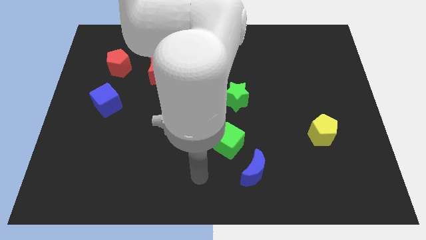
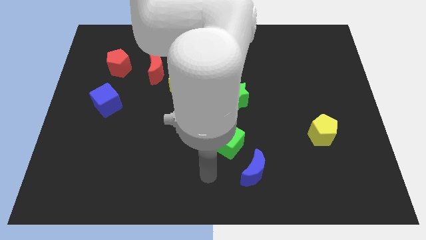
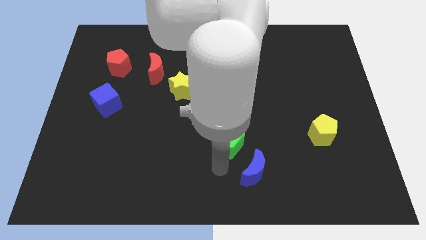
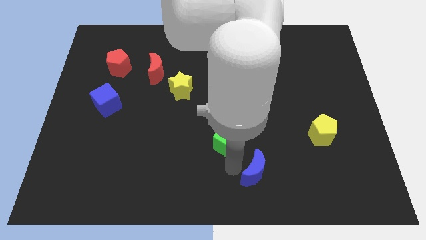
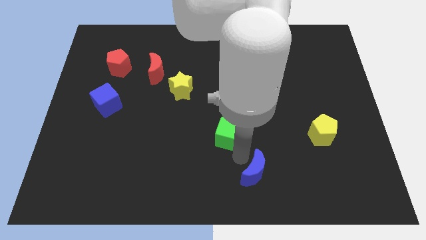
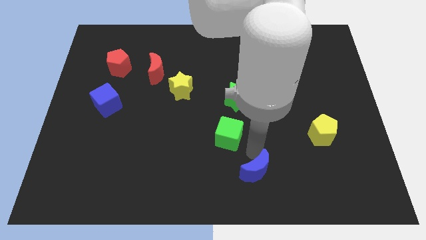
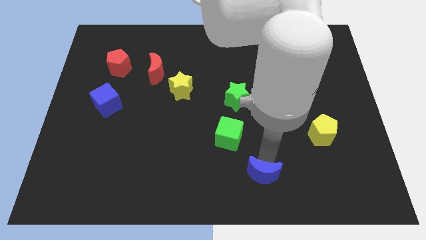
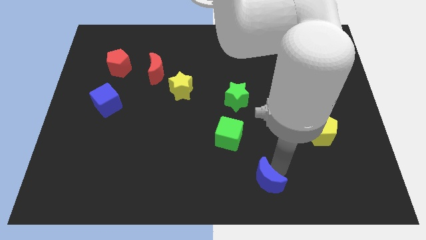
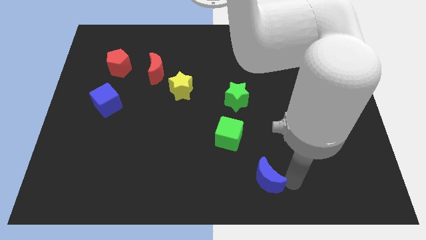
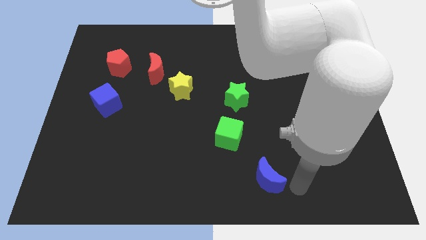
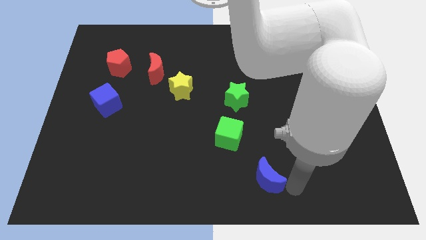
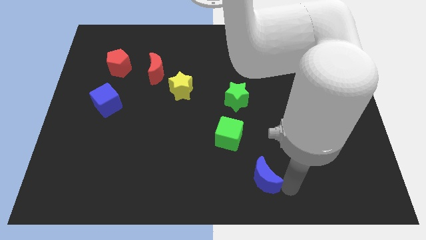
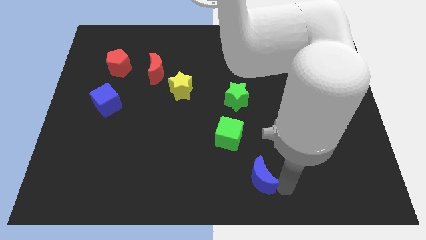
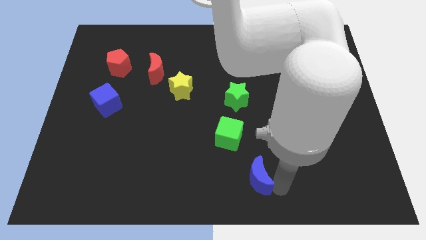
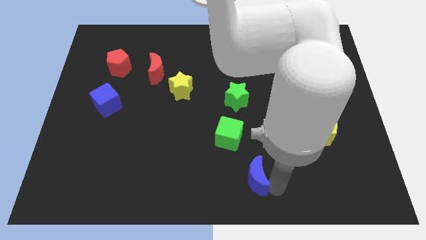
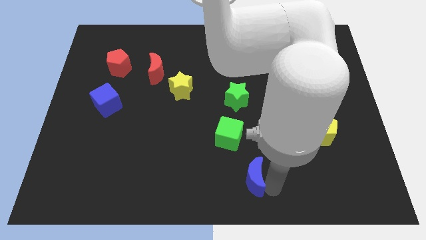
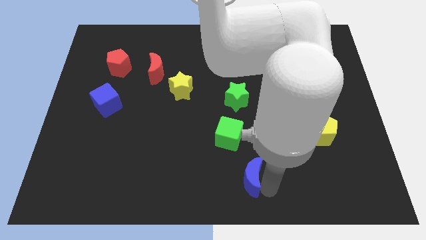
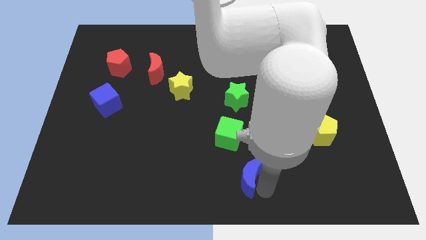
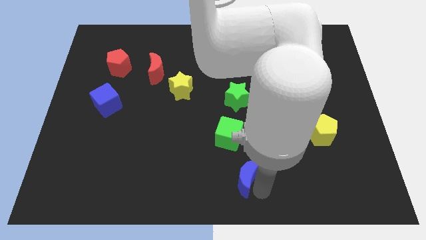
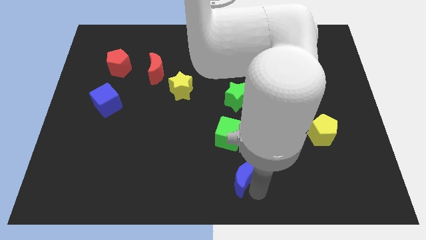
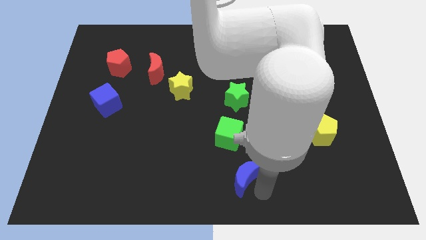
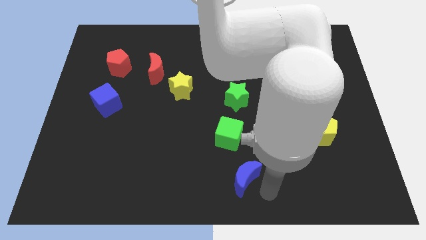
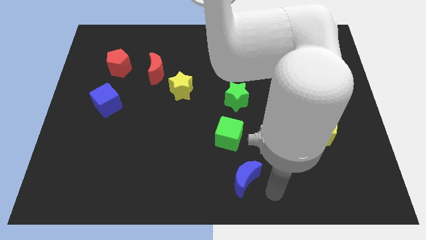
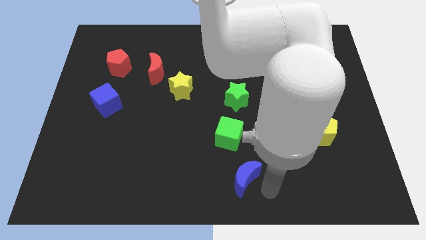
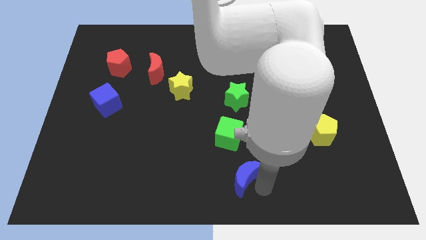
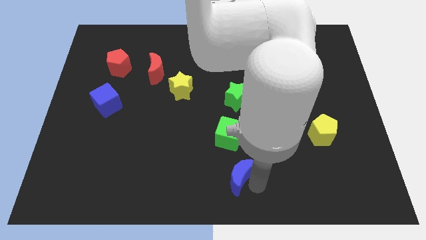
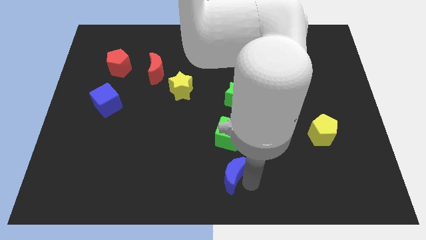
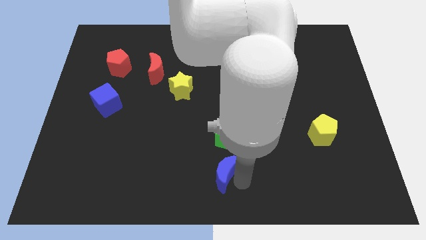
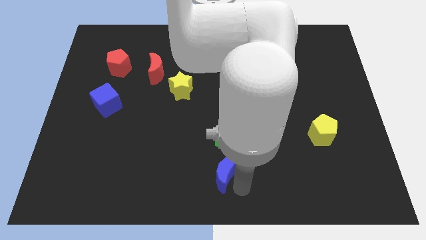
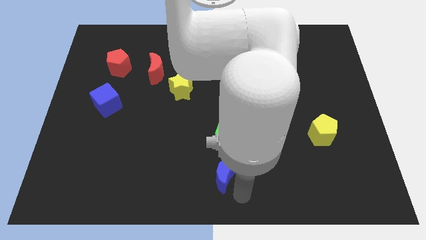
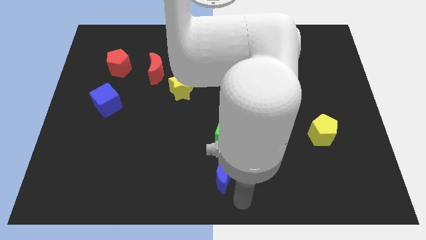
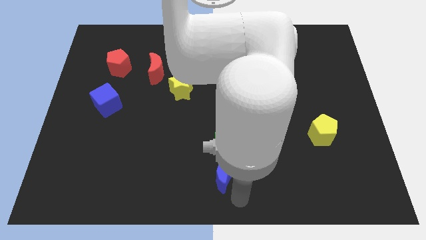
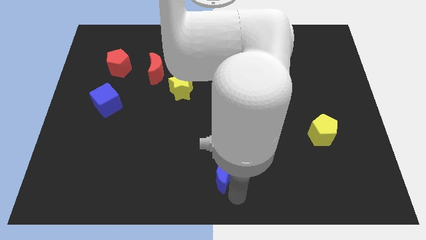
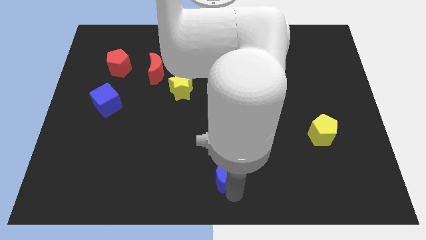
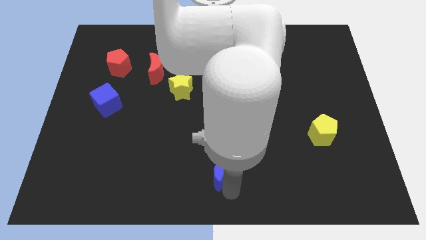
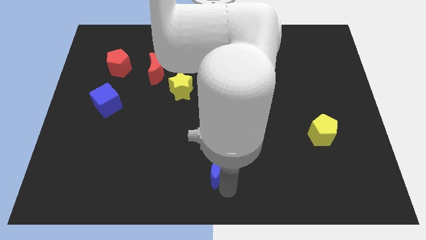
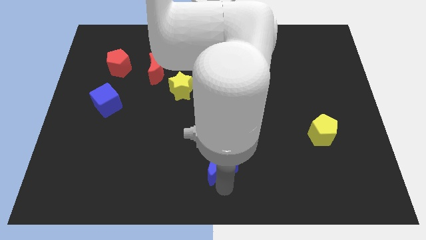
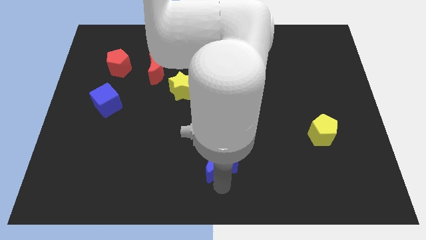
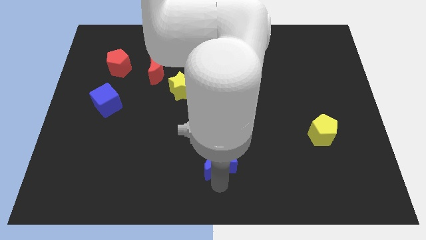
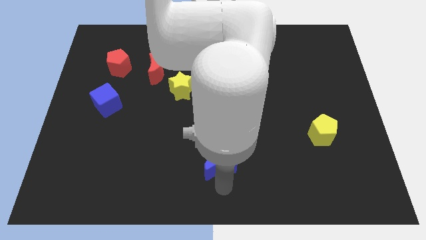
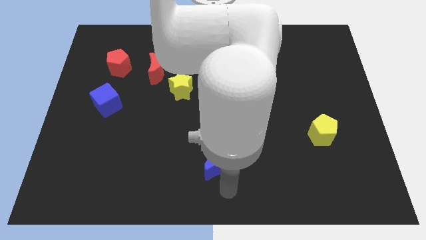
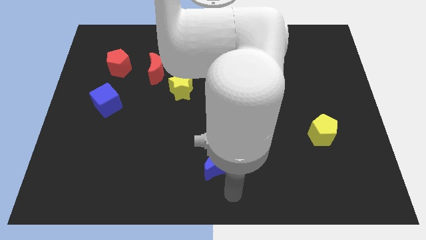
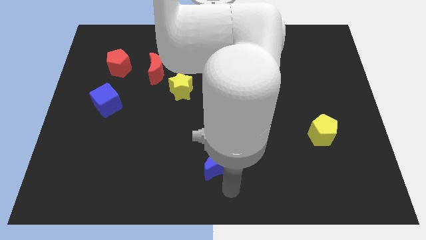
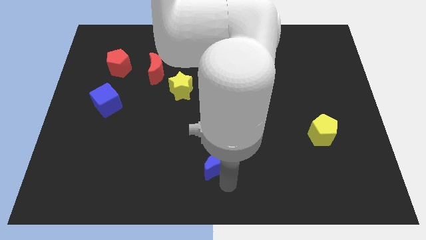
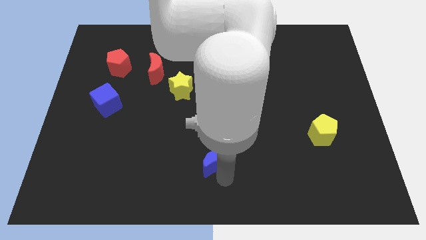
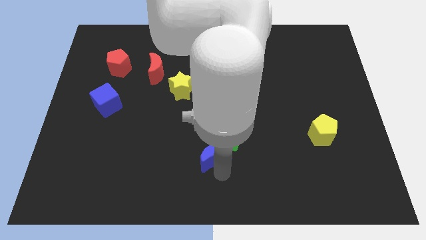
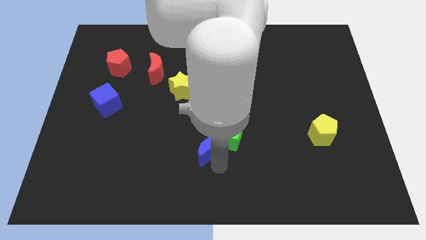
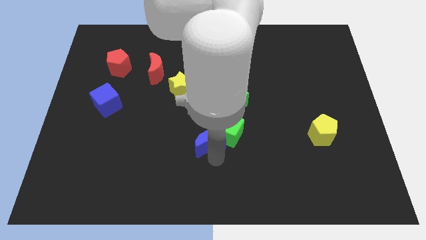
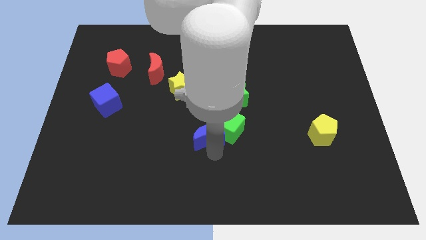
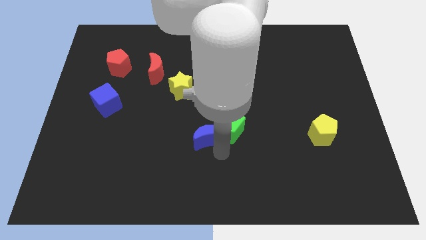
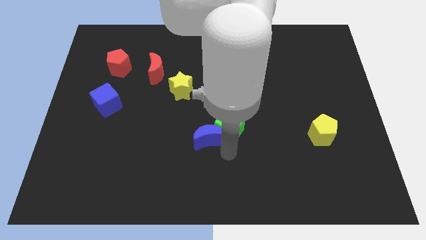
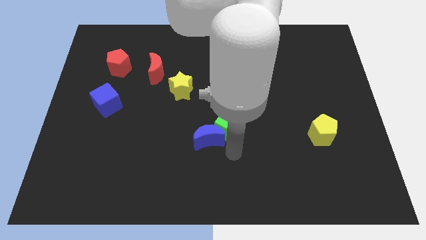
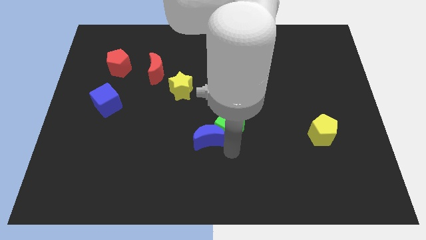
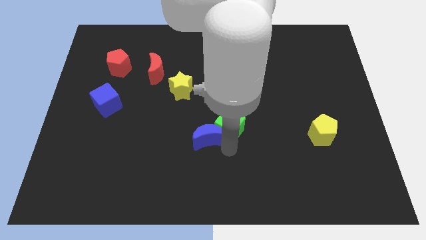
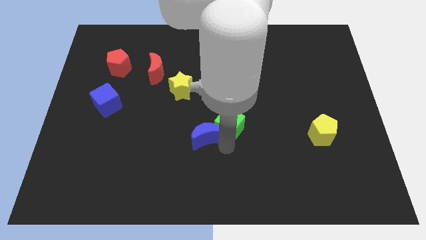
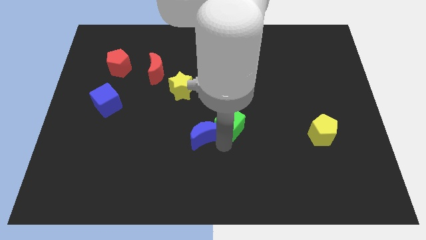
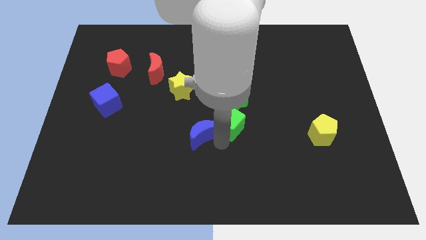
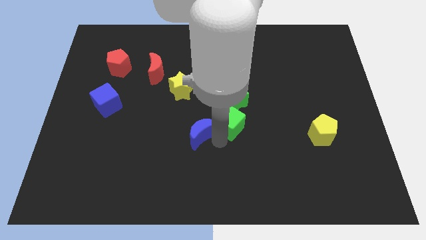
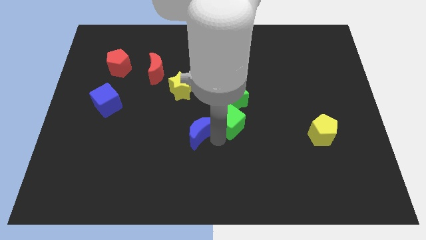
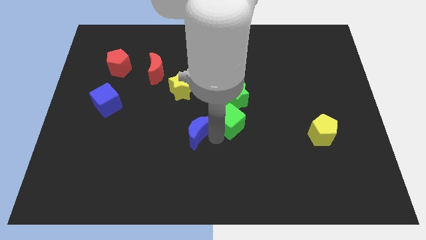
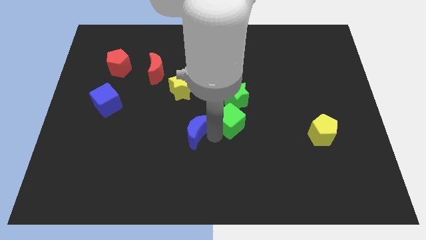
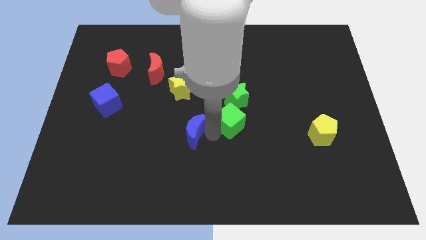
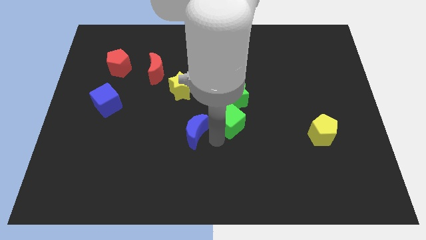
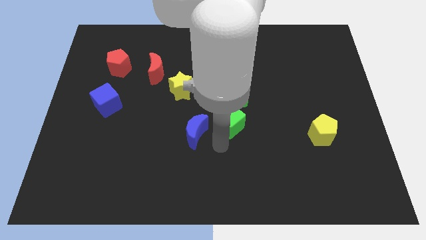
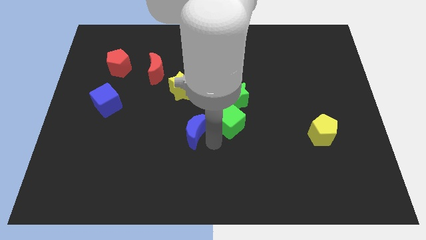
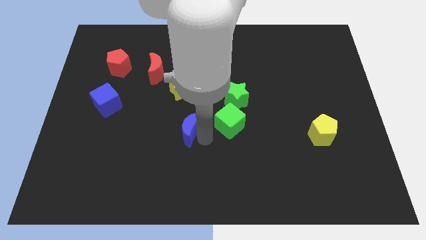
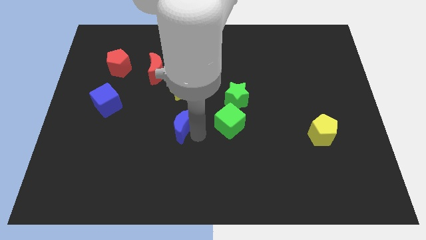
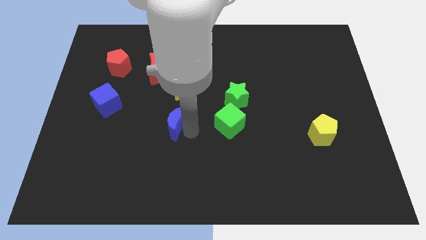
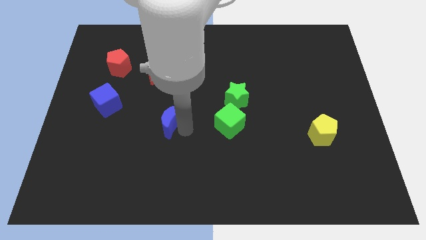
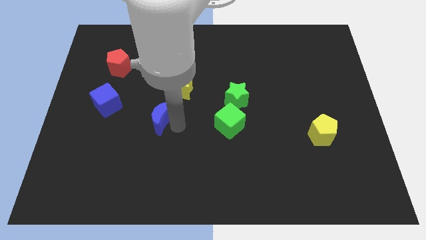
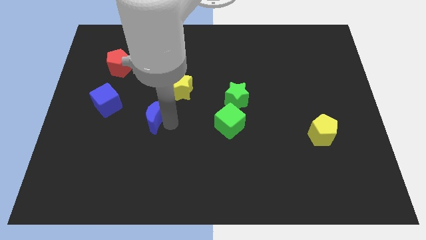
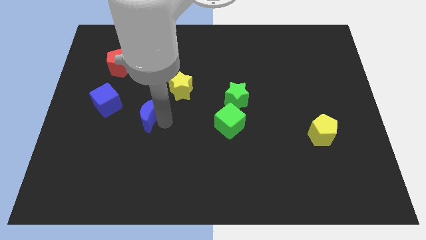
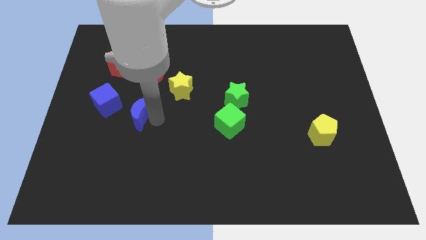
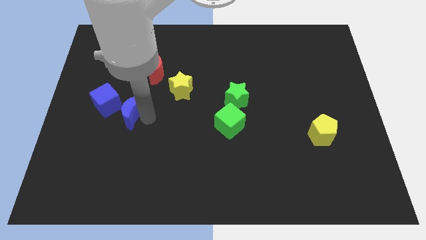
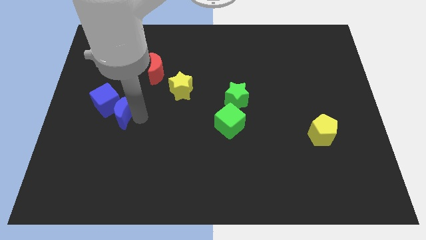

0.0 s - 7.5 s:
push the blue moon to the blue cube

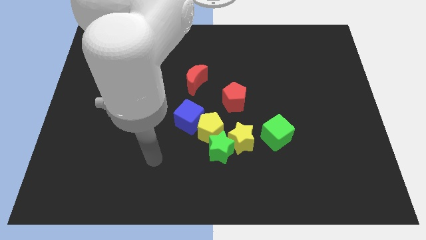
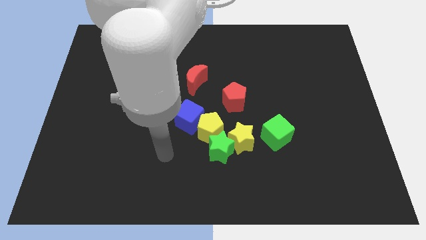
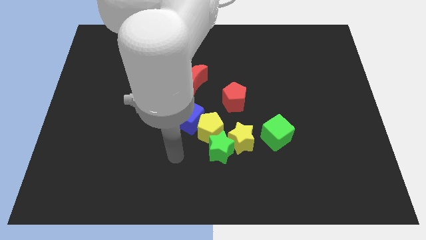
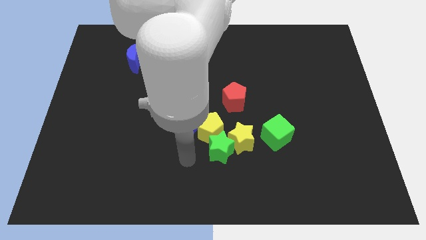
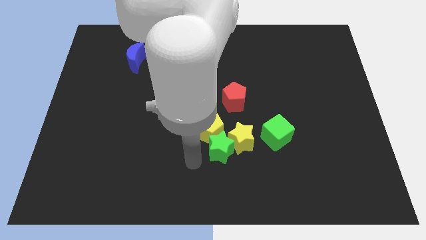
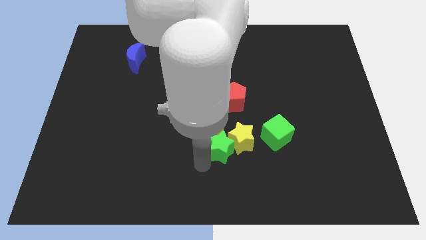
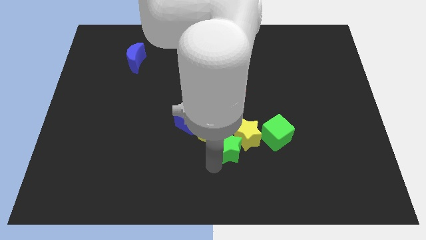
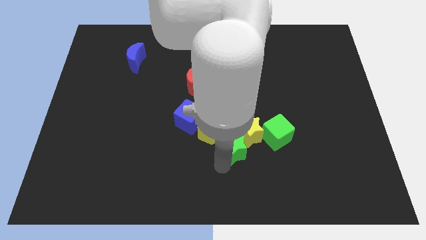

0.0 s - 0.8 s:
put the green cube towards the yellow star
